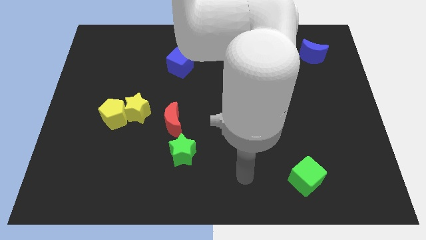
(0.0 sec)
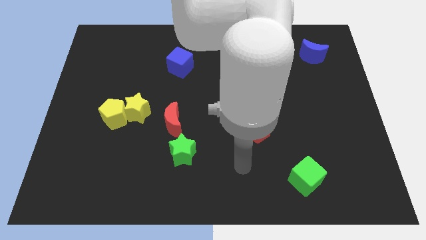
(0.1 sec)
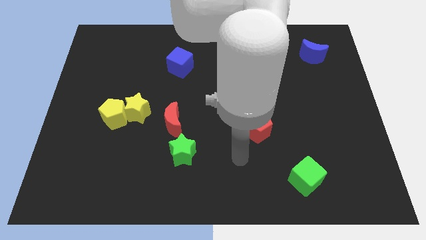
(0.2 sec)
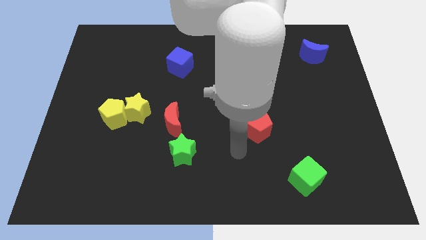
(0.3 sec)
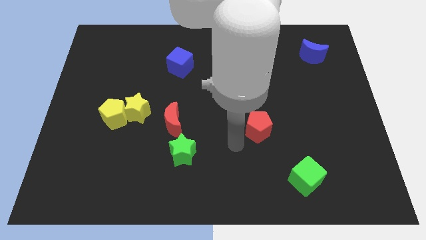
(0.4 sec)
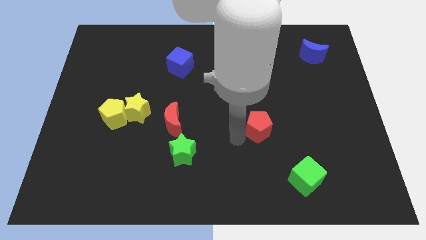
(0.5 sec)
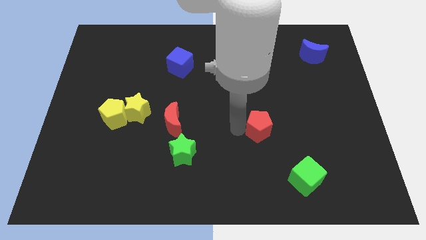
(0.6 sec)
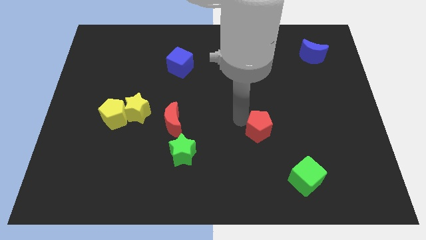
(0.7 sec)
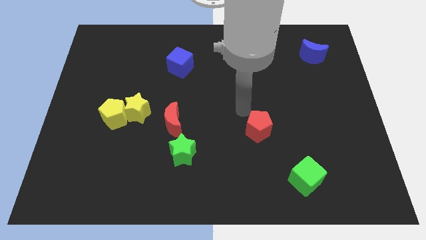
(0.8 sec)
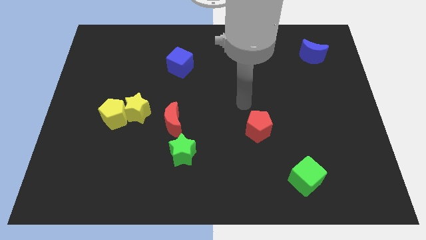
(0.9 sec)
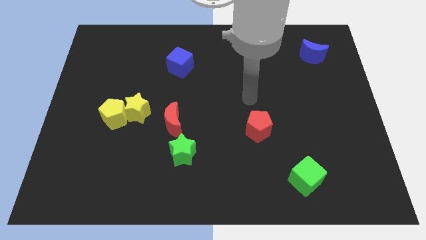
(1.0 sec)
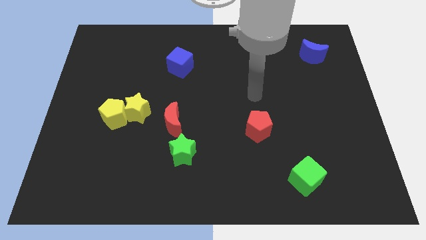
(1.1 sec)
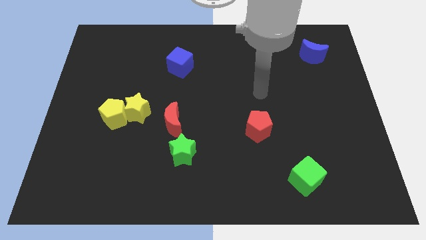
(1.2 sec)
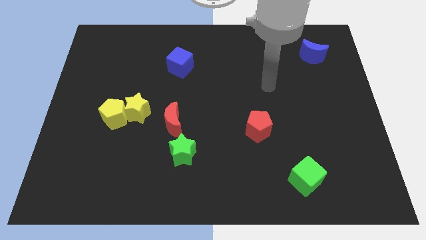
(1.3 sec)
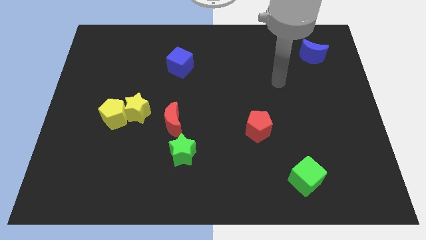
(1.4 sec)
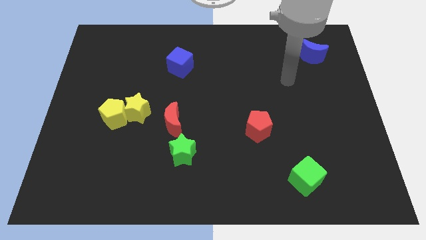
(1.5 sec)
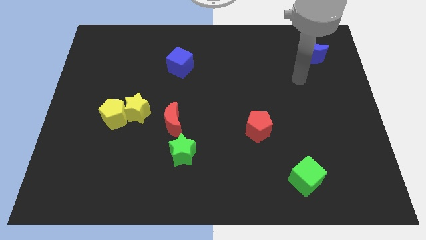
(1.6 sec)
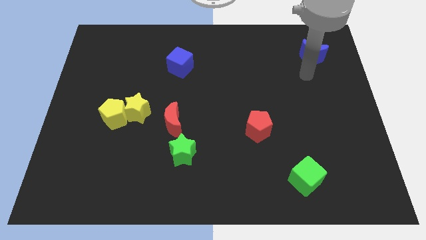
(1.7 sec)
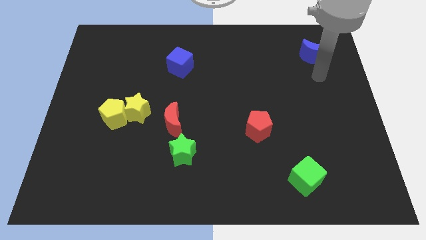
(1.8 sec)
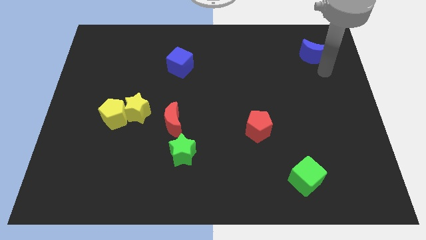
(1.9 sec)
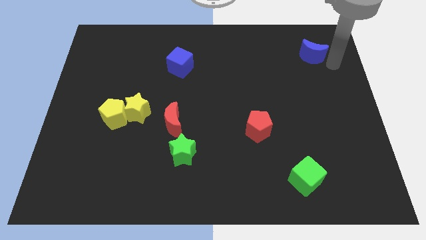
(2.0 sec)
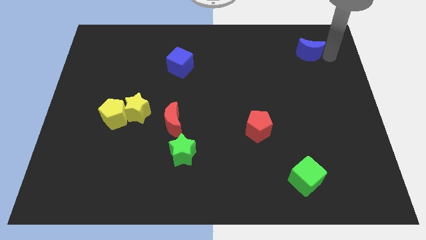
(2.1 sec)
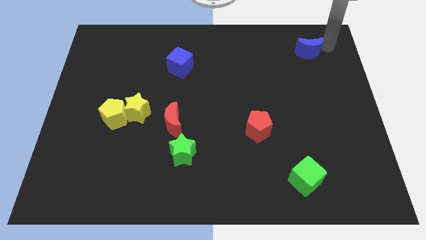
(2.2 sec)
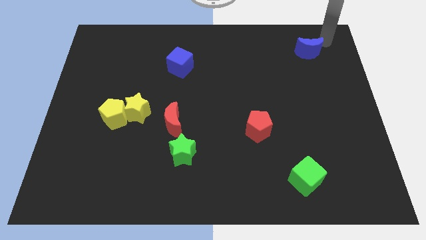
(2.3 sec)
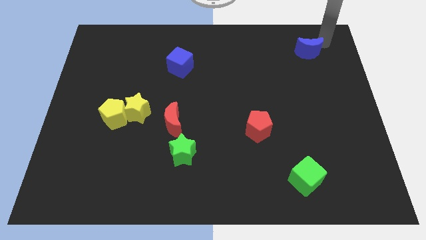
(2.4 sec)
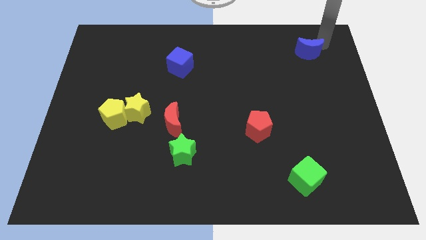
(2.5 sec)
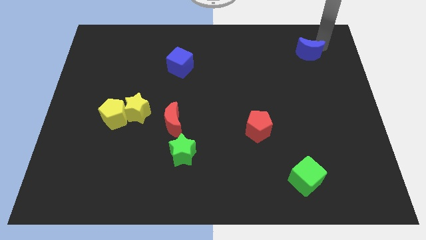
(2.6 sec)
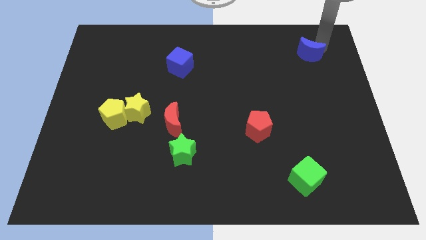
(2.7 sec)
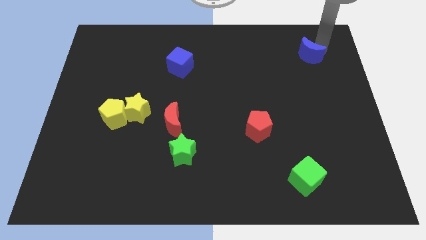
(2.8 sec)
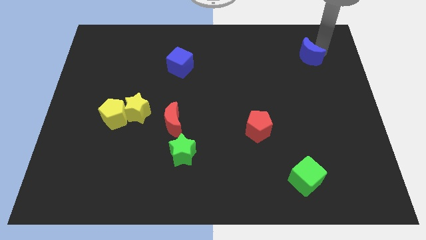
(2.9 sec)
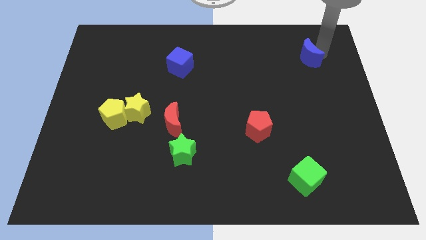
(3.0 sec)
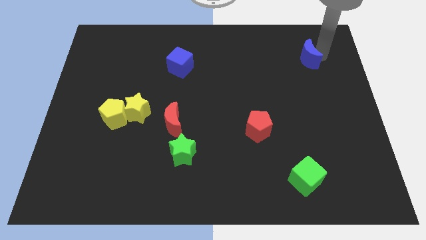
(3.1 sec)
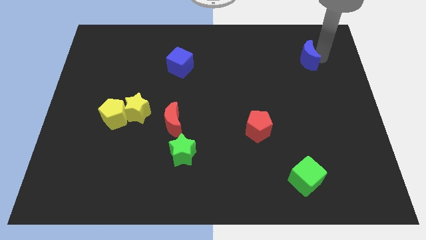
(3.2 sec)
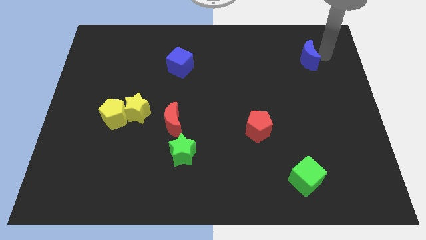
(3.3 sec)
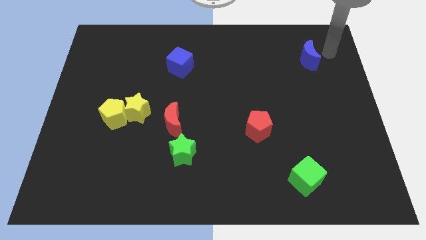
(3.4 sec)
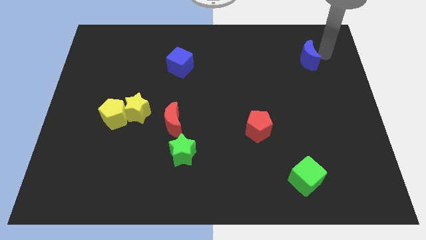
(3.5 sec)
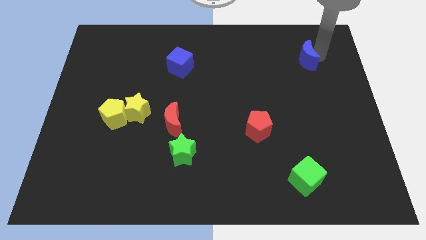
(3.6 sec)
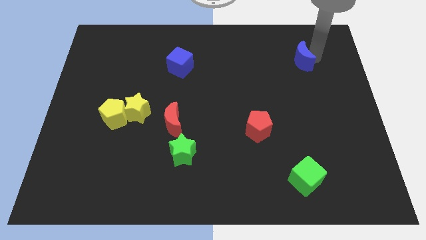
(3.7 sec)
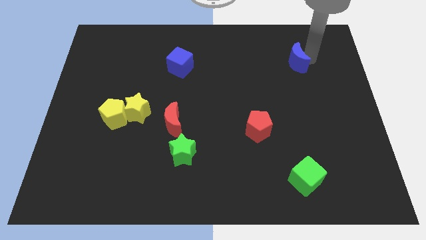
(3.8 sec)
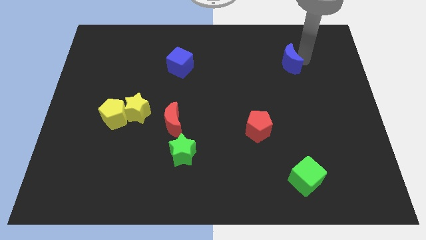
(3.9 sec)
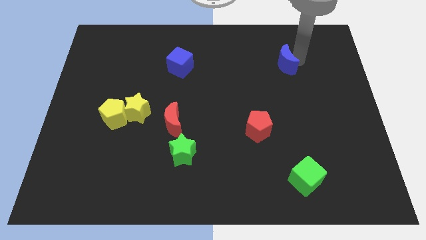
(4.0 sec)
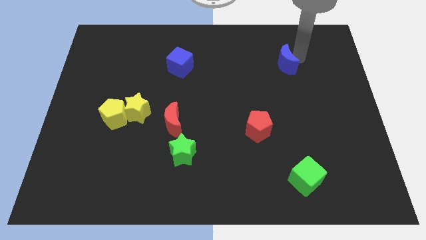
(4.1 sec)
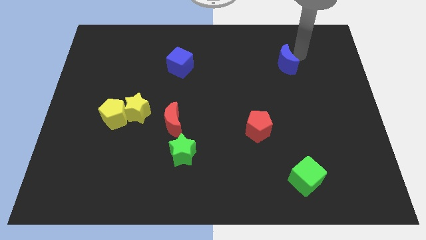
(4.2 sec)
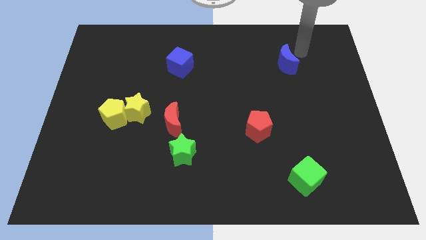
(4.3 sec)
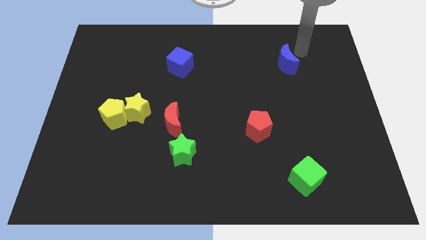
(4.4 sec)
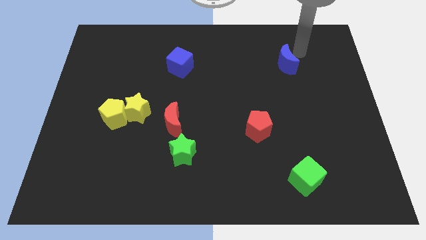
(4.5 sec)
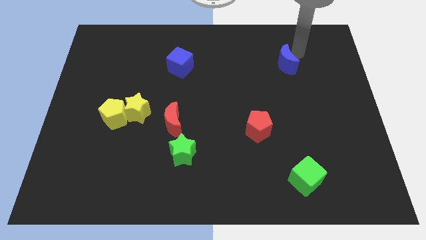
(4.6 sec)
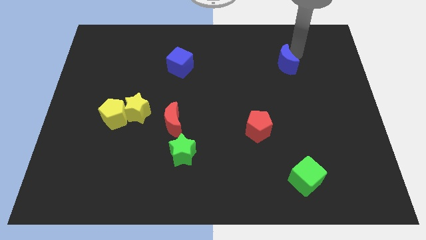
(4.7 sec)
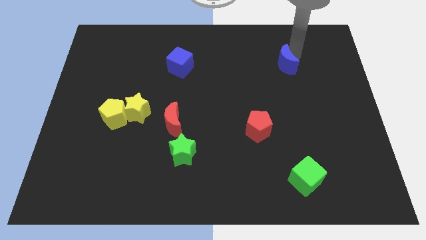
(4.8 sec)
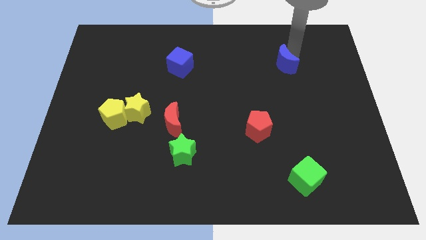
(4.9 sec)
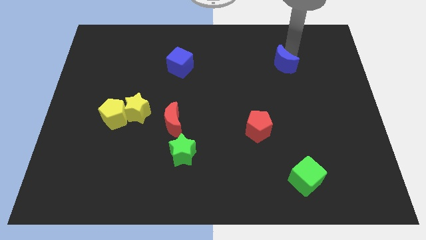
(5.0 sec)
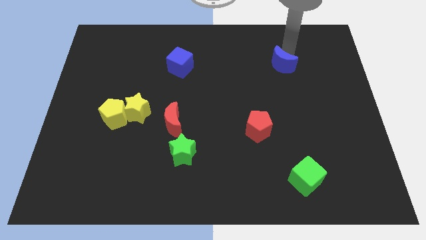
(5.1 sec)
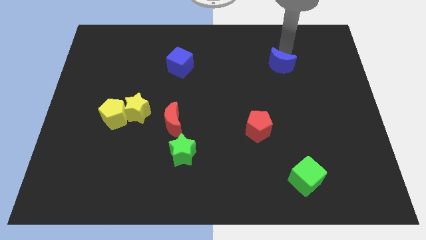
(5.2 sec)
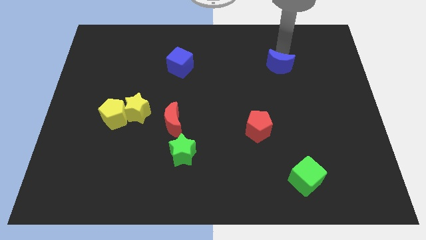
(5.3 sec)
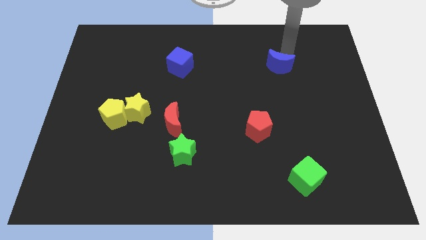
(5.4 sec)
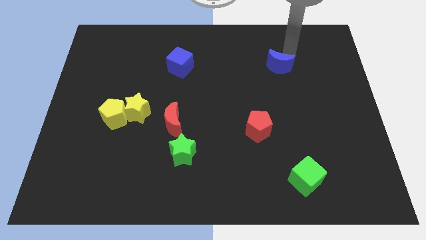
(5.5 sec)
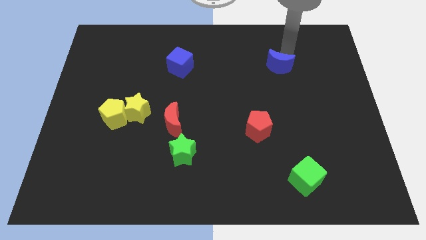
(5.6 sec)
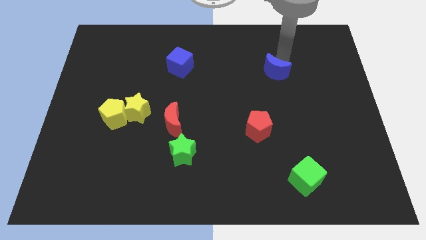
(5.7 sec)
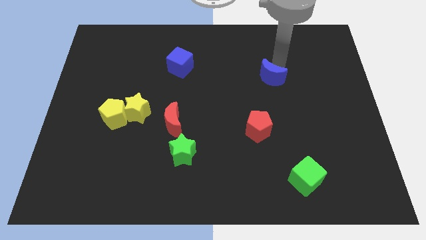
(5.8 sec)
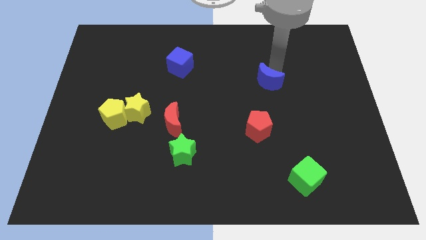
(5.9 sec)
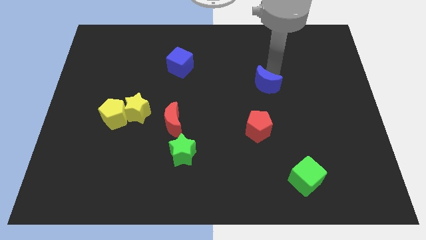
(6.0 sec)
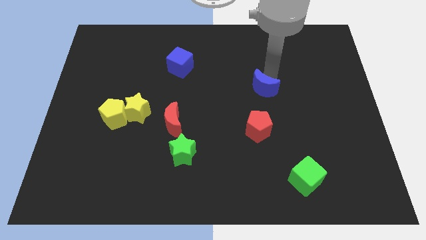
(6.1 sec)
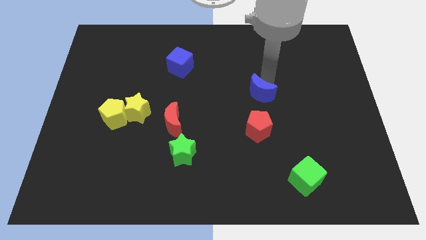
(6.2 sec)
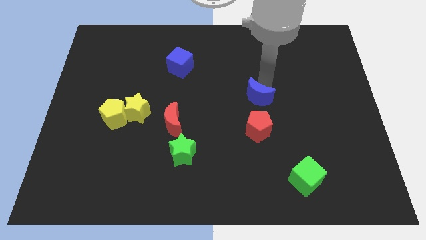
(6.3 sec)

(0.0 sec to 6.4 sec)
slide the blue moon downwards and then to the left

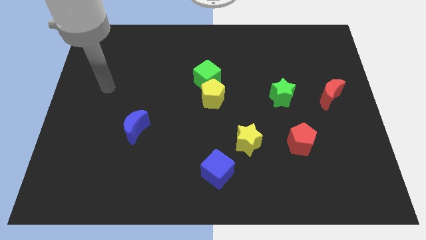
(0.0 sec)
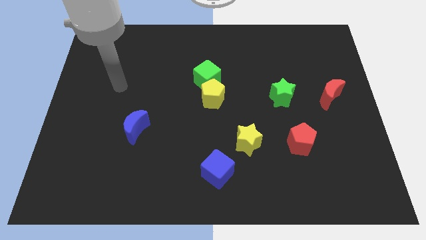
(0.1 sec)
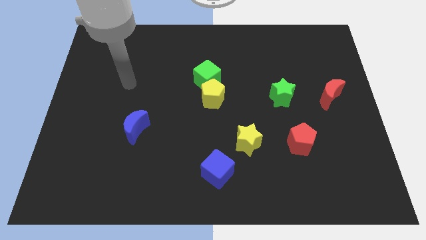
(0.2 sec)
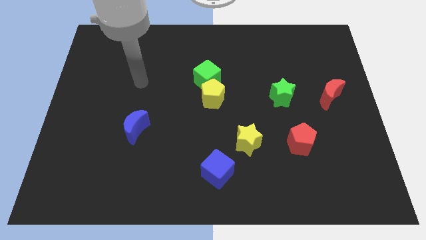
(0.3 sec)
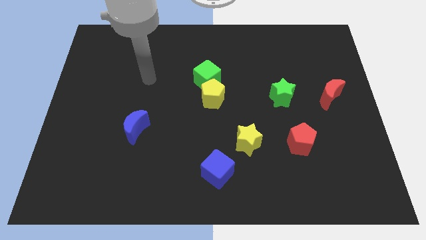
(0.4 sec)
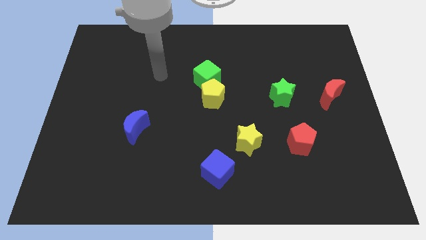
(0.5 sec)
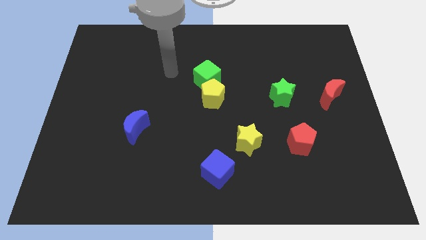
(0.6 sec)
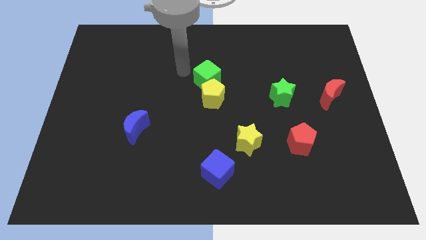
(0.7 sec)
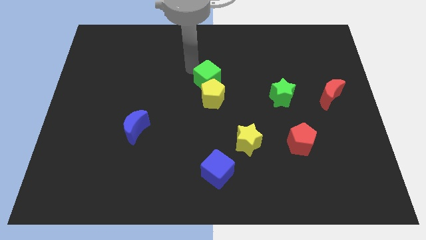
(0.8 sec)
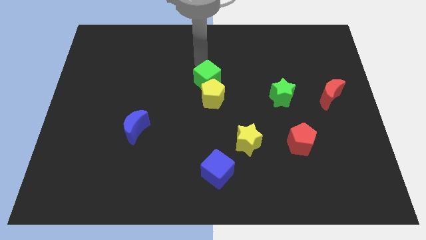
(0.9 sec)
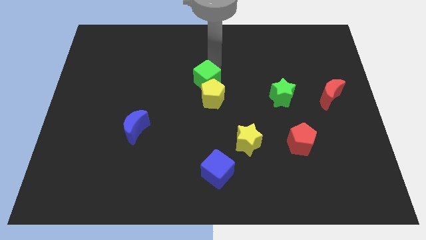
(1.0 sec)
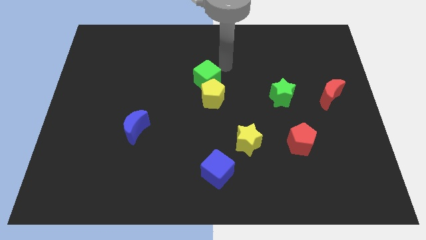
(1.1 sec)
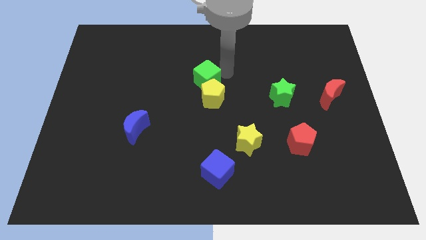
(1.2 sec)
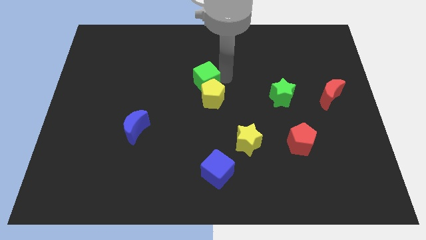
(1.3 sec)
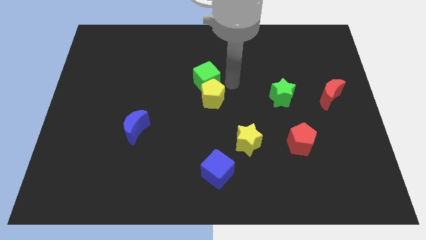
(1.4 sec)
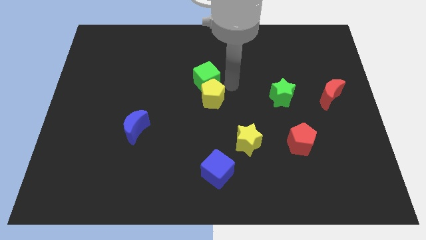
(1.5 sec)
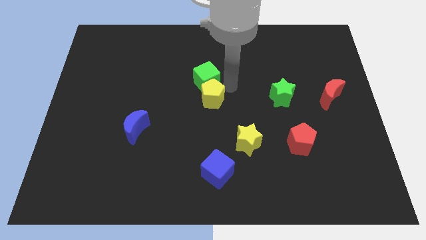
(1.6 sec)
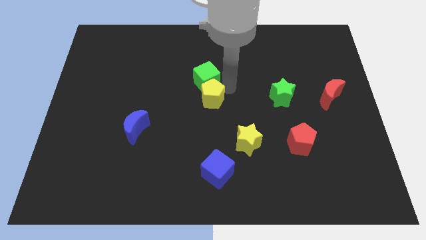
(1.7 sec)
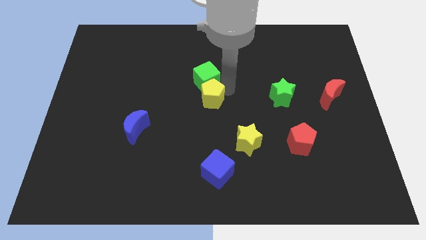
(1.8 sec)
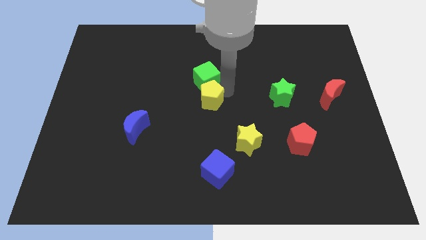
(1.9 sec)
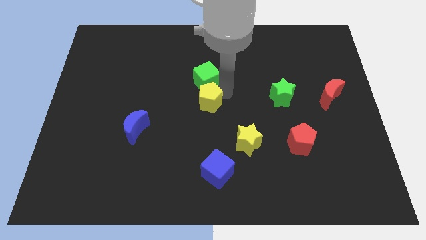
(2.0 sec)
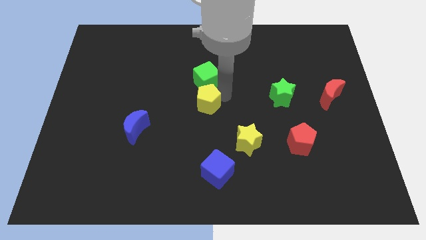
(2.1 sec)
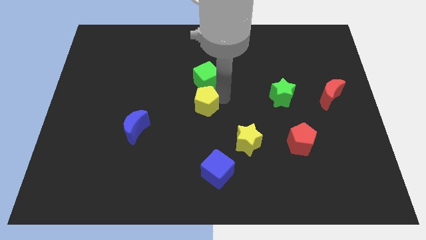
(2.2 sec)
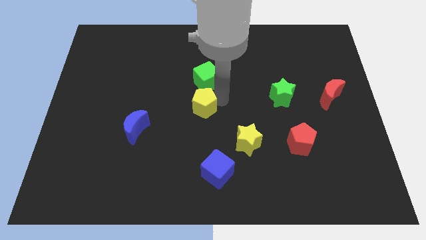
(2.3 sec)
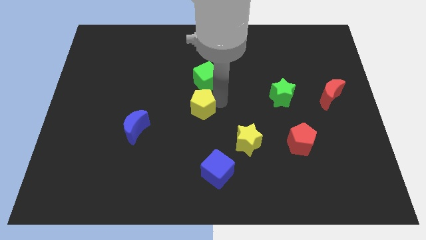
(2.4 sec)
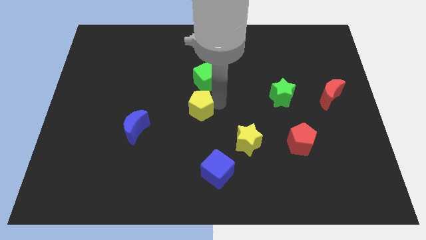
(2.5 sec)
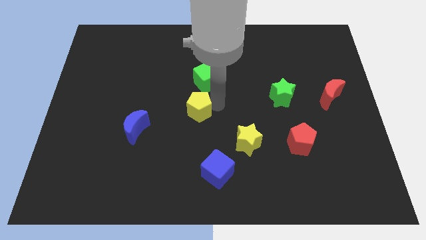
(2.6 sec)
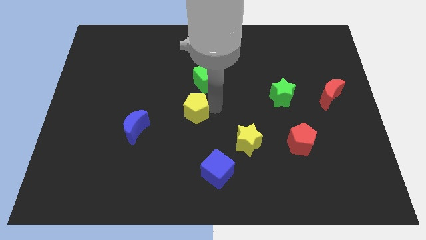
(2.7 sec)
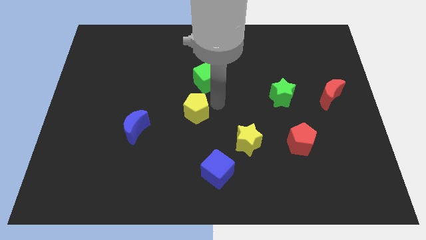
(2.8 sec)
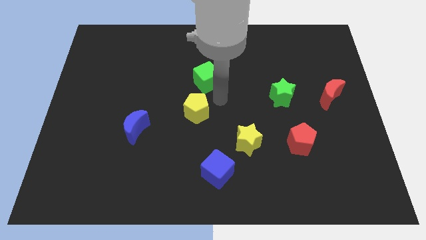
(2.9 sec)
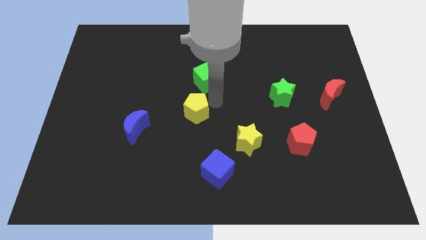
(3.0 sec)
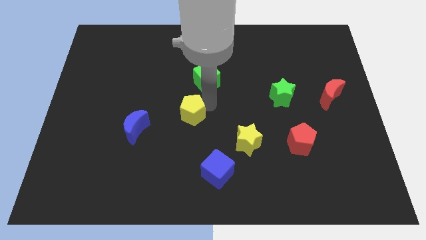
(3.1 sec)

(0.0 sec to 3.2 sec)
slide the yellow pentagon somewhat down and left diagonally
